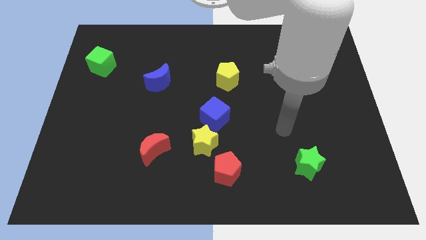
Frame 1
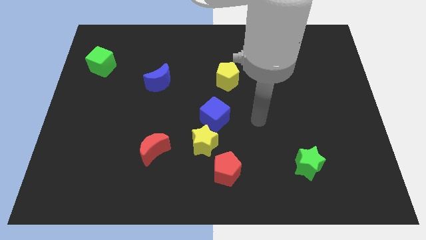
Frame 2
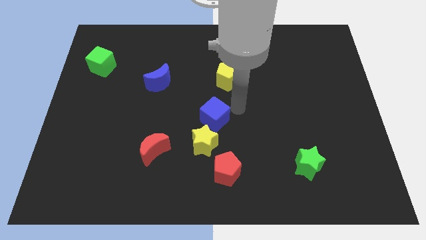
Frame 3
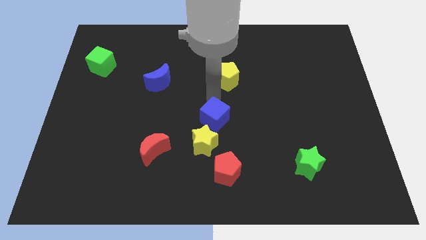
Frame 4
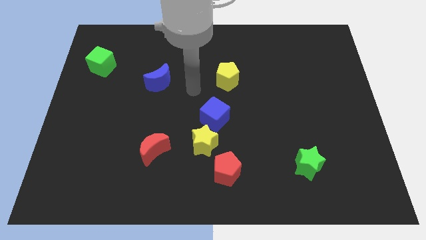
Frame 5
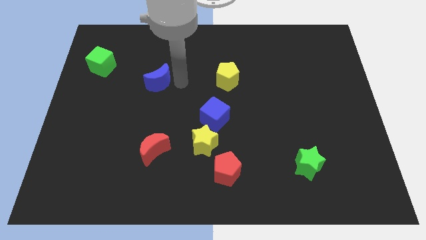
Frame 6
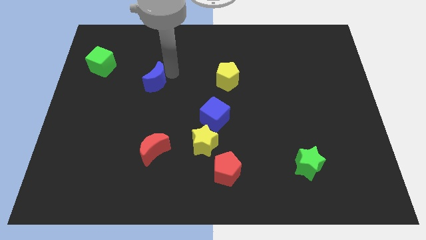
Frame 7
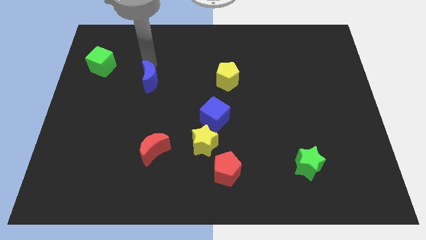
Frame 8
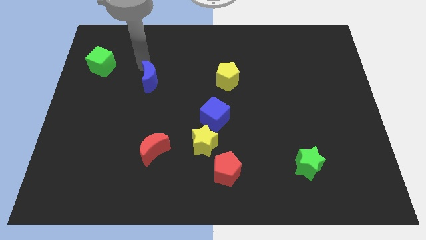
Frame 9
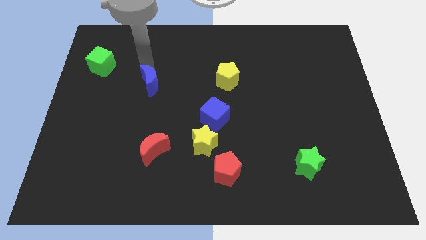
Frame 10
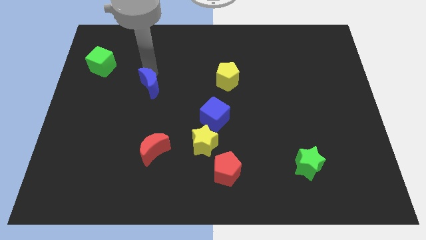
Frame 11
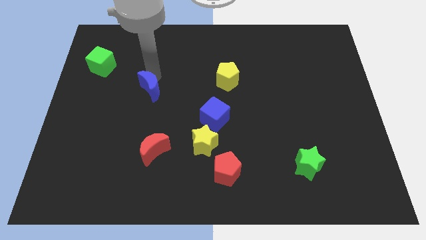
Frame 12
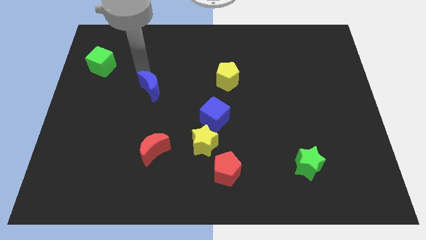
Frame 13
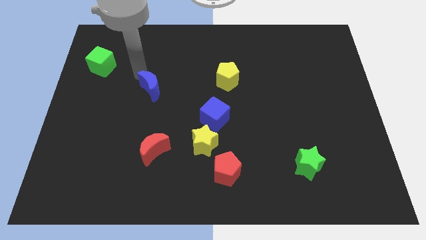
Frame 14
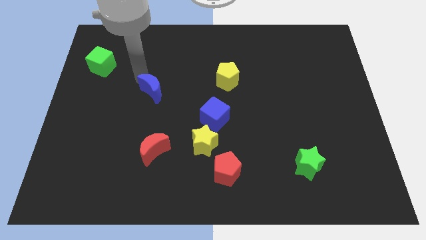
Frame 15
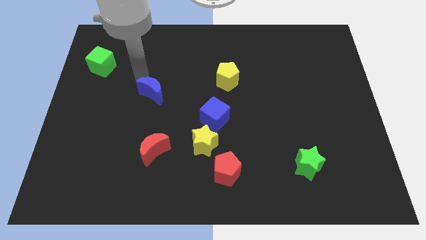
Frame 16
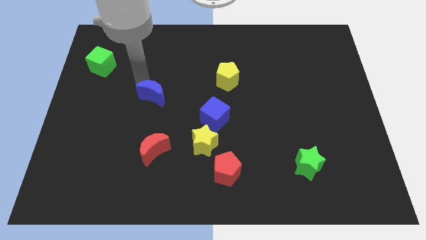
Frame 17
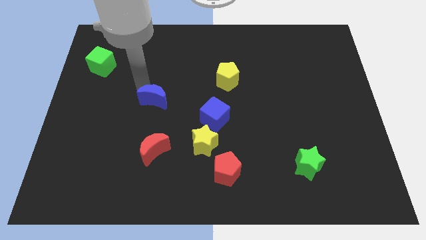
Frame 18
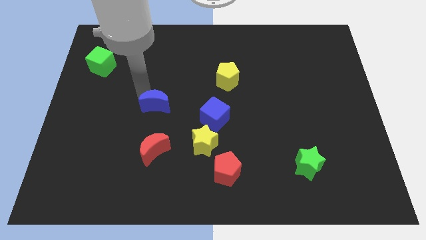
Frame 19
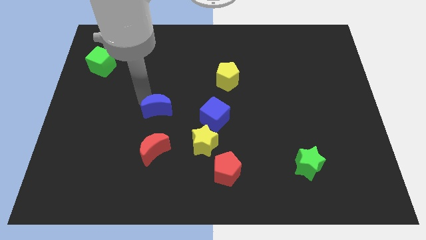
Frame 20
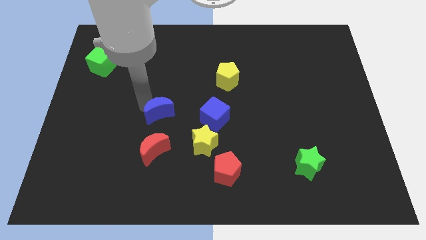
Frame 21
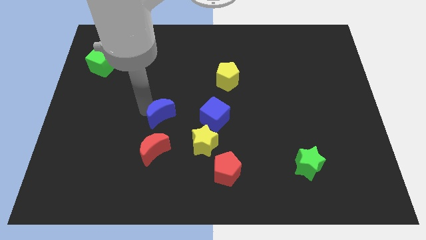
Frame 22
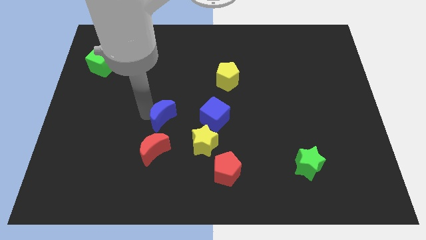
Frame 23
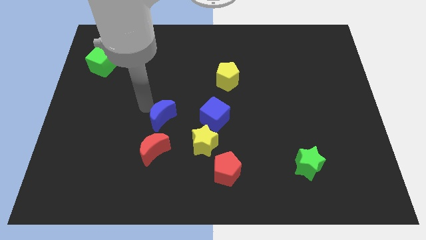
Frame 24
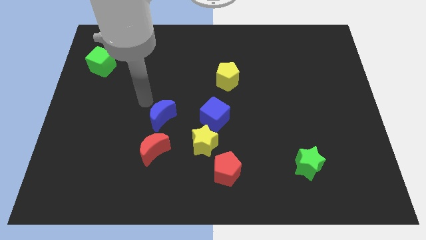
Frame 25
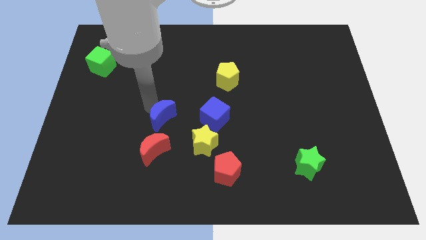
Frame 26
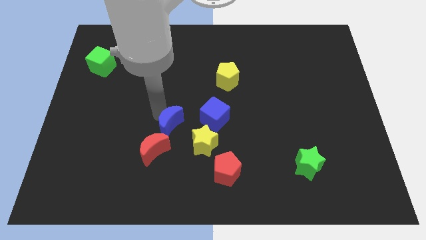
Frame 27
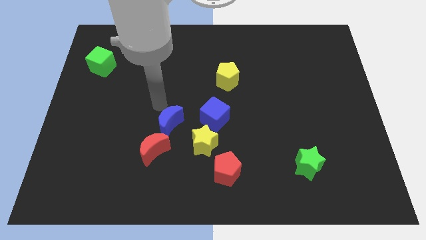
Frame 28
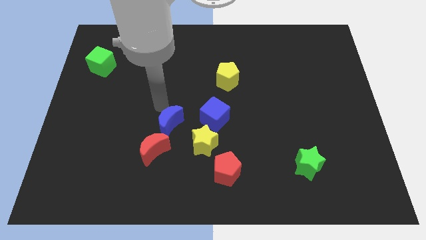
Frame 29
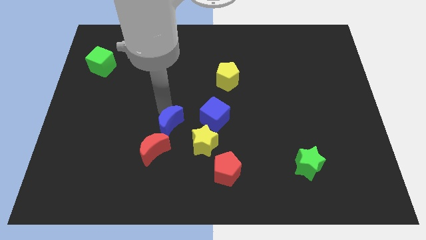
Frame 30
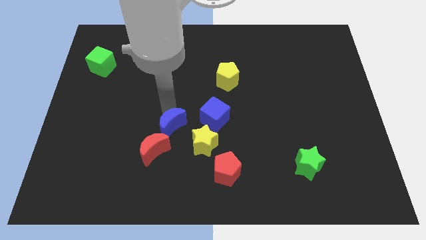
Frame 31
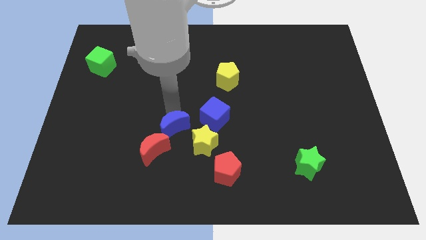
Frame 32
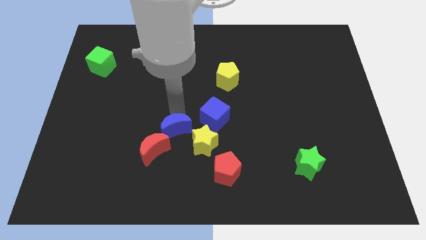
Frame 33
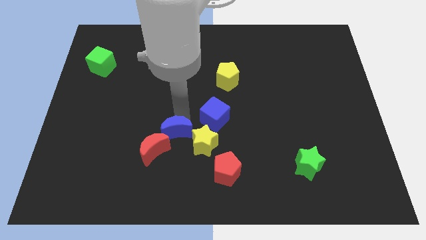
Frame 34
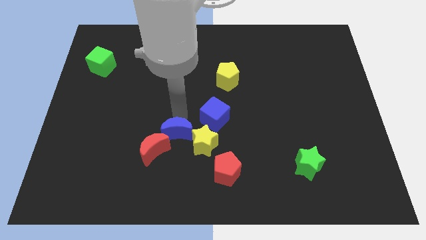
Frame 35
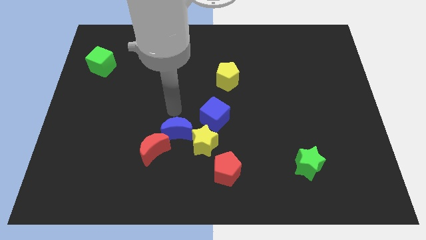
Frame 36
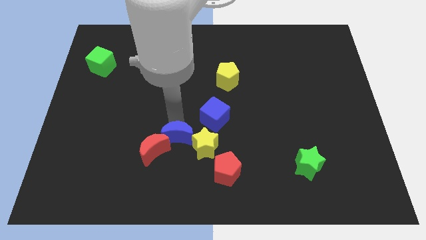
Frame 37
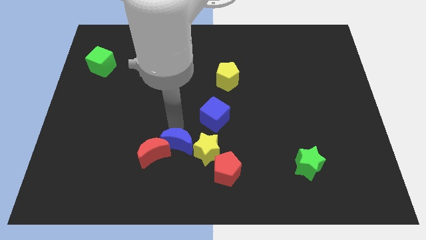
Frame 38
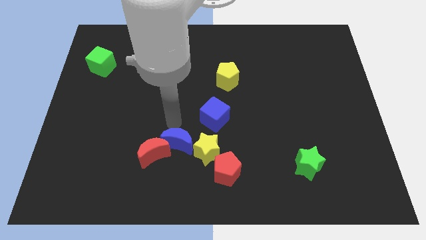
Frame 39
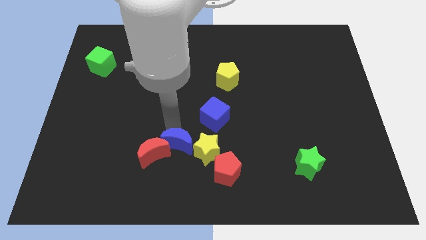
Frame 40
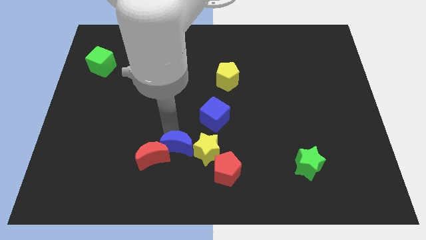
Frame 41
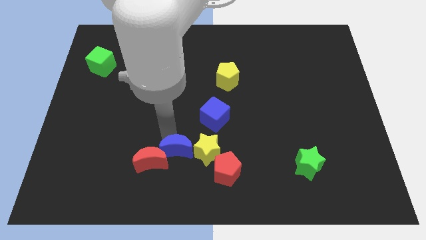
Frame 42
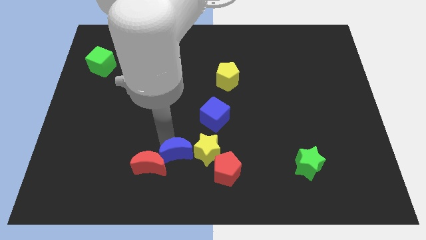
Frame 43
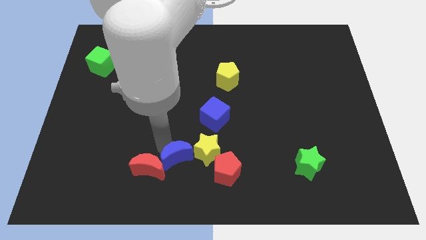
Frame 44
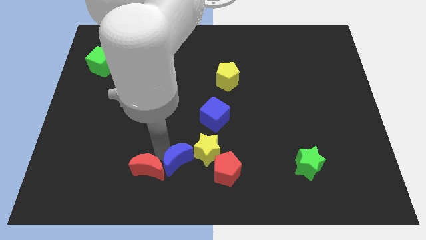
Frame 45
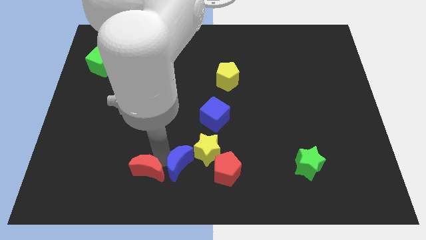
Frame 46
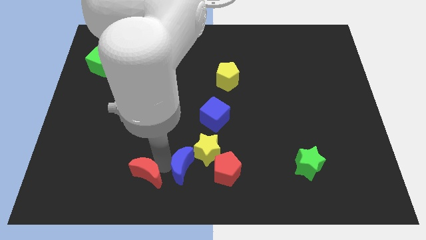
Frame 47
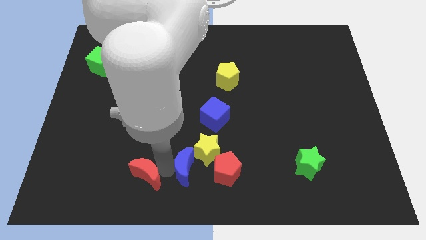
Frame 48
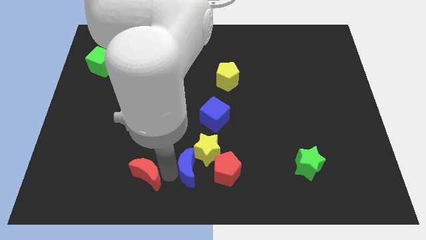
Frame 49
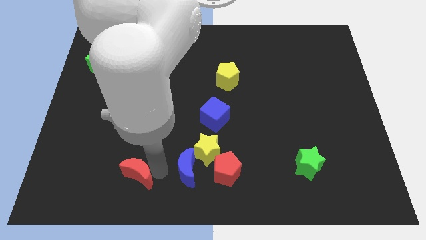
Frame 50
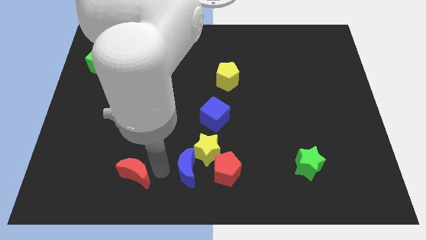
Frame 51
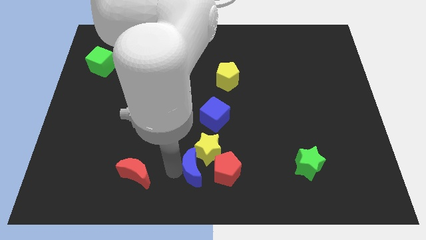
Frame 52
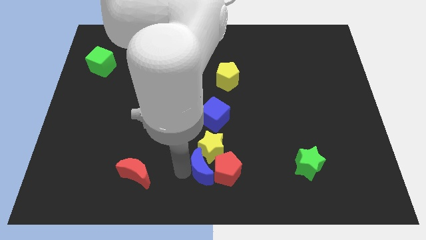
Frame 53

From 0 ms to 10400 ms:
push the blue moon to the red pentagon

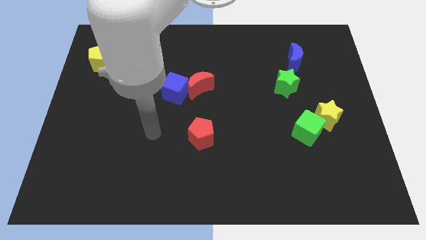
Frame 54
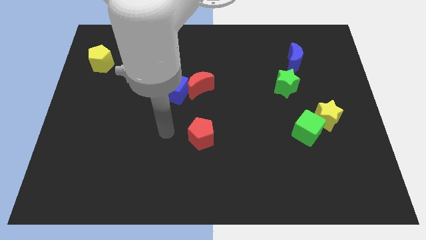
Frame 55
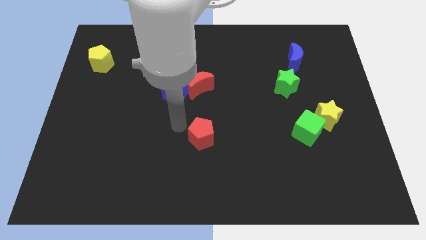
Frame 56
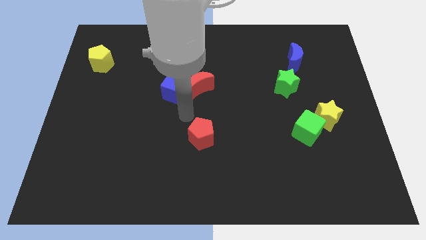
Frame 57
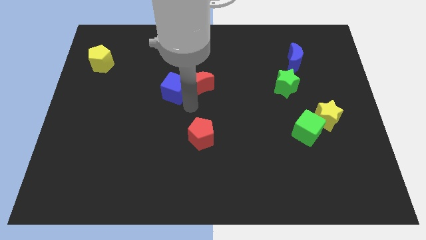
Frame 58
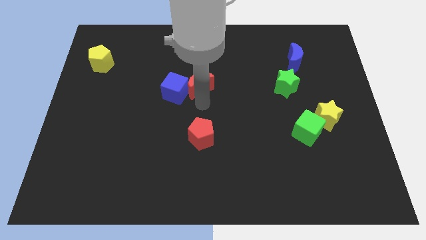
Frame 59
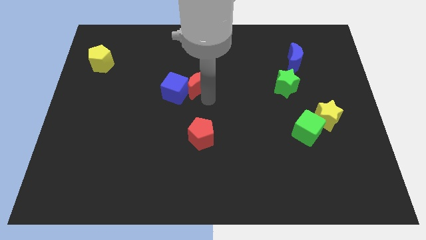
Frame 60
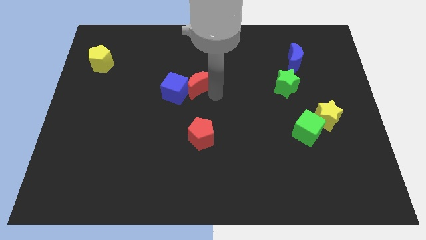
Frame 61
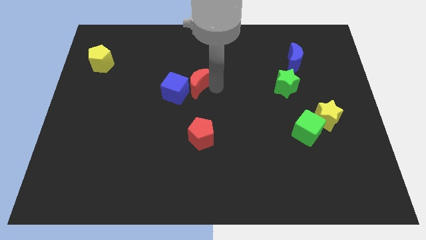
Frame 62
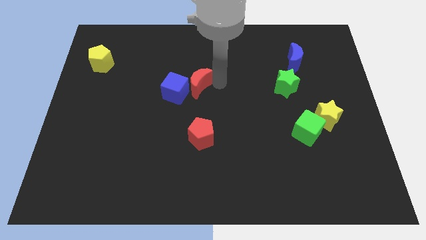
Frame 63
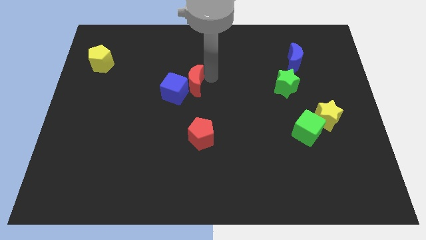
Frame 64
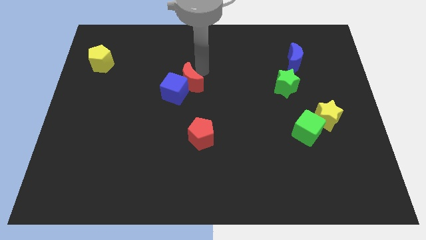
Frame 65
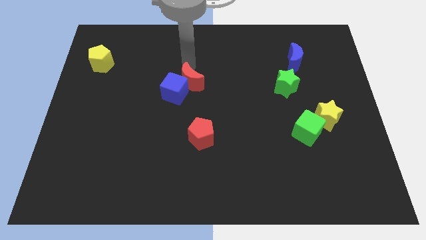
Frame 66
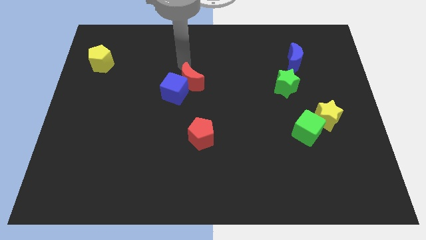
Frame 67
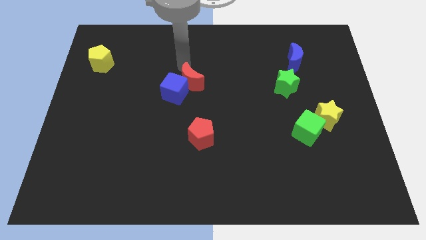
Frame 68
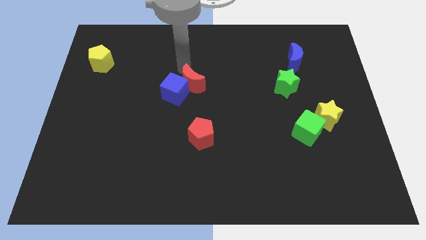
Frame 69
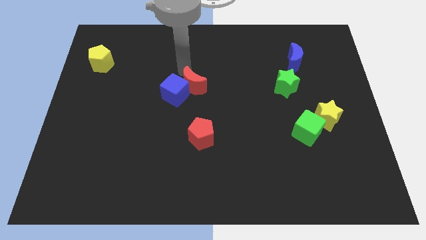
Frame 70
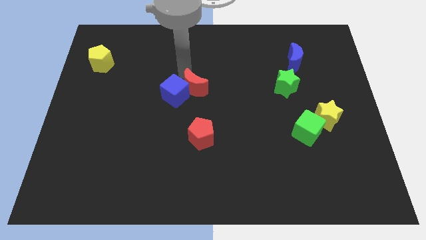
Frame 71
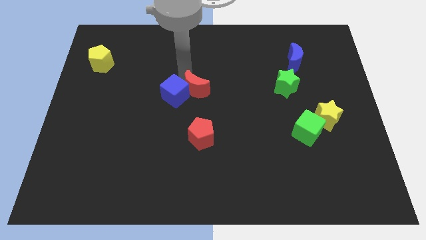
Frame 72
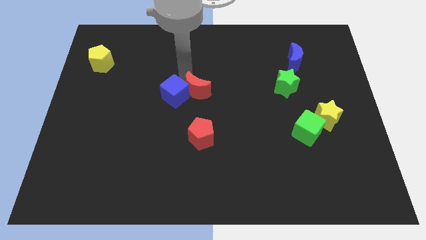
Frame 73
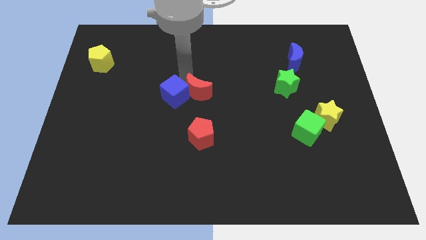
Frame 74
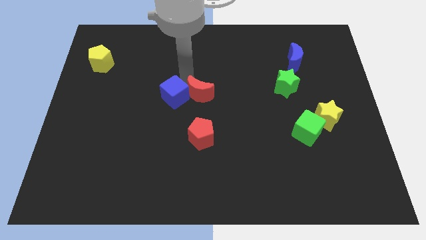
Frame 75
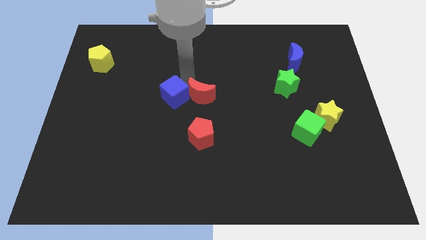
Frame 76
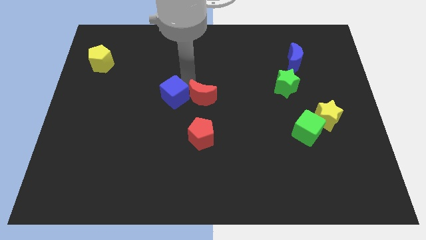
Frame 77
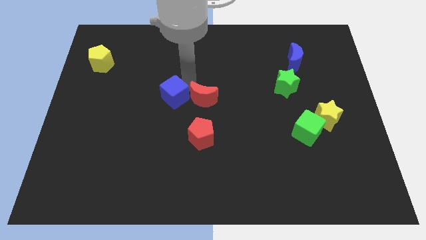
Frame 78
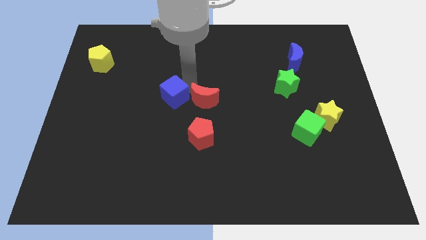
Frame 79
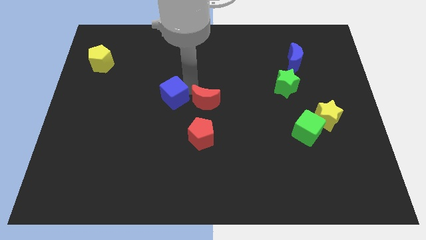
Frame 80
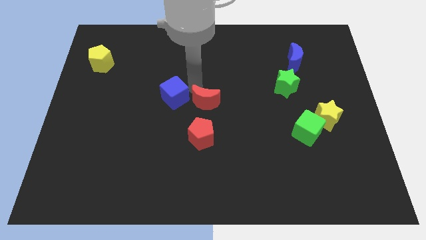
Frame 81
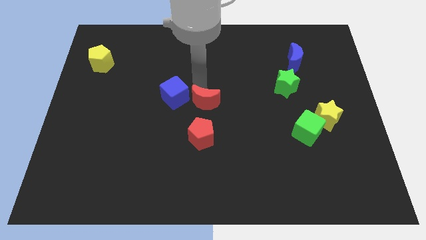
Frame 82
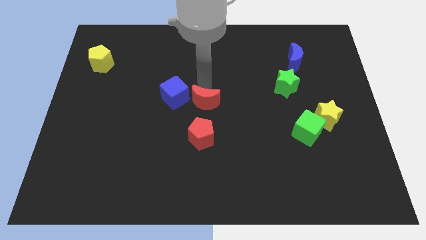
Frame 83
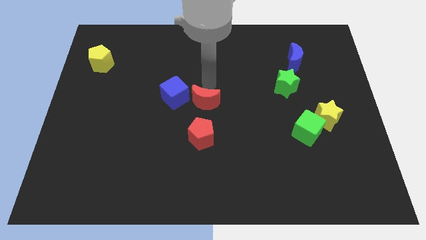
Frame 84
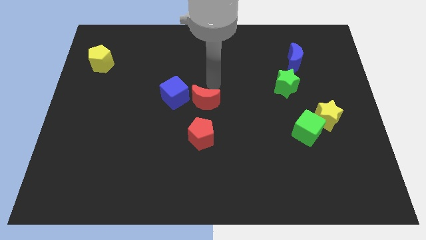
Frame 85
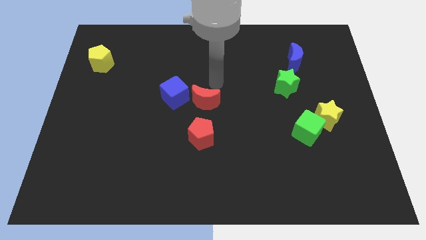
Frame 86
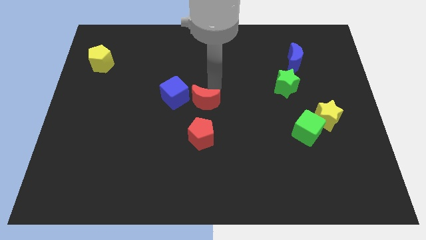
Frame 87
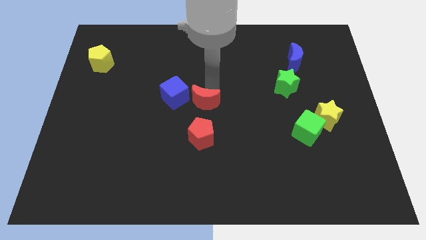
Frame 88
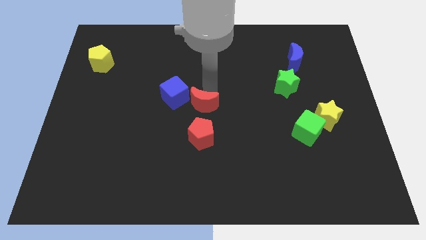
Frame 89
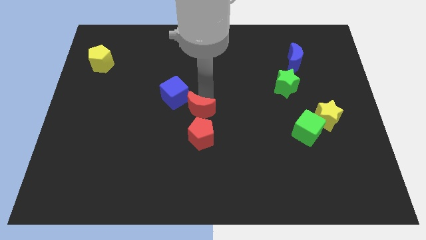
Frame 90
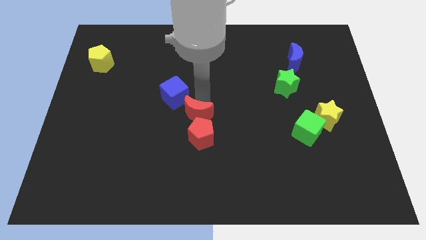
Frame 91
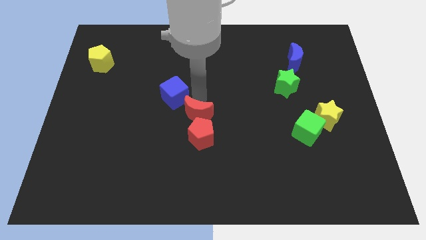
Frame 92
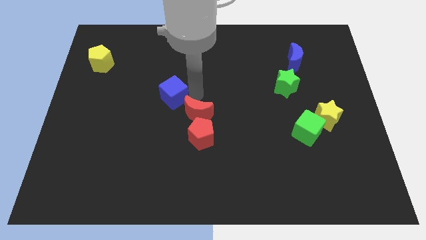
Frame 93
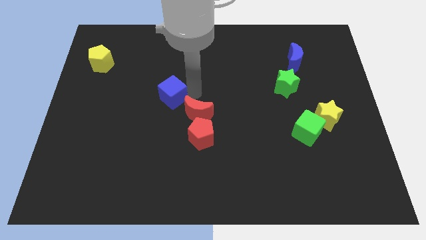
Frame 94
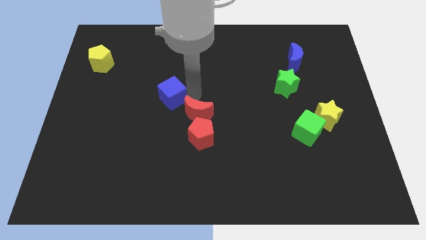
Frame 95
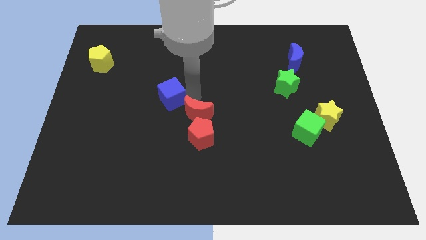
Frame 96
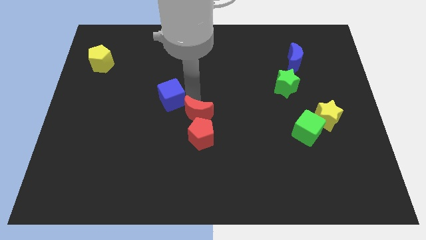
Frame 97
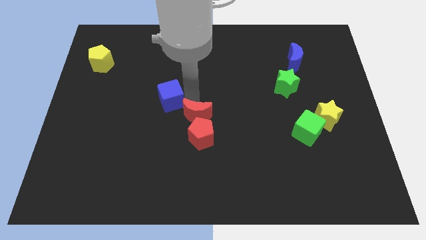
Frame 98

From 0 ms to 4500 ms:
put the red moon next to the red pentagon
